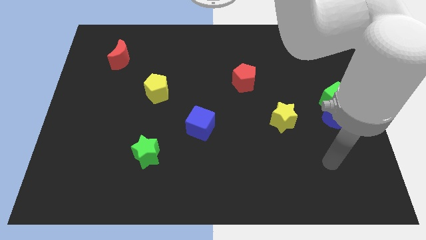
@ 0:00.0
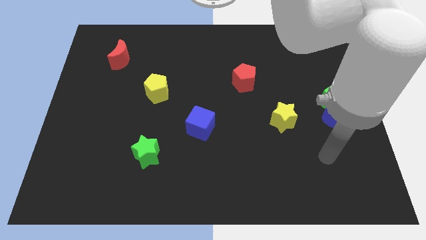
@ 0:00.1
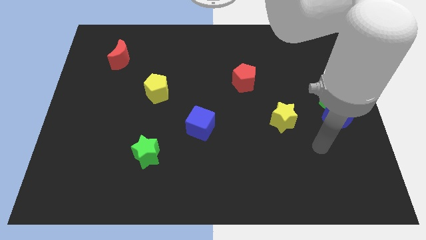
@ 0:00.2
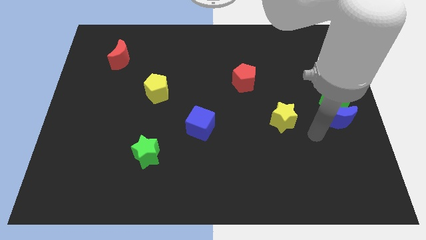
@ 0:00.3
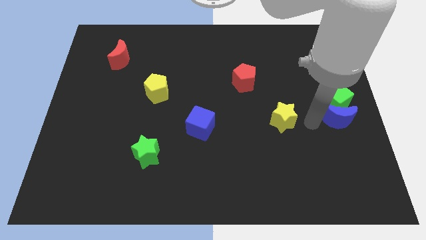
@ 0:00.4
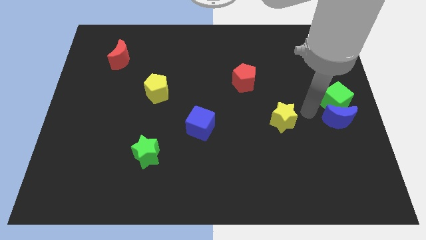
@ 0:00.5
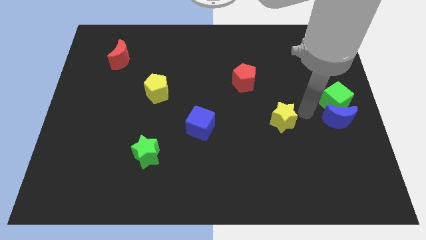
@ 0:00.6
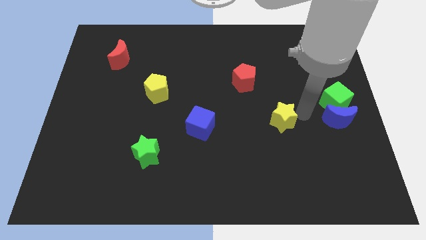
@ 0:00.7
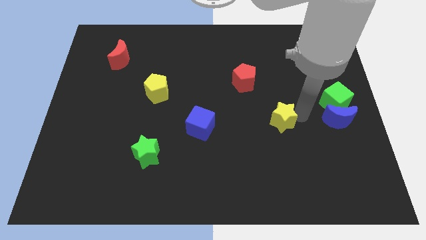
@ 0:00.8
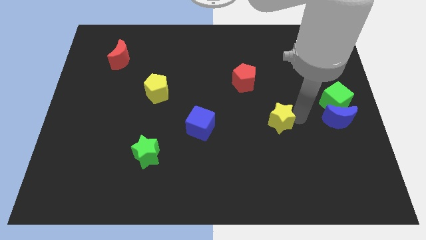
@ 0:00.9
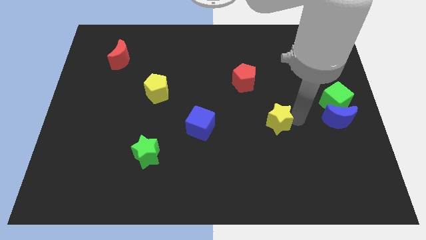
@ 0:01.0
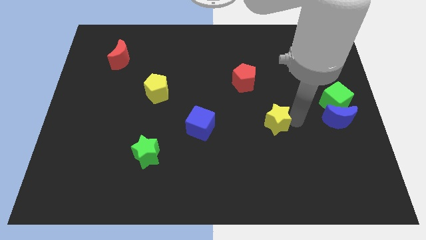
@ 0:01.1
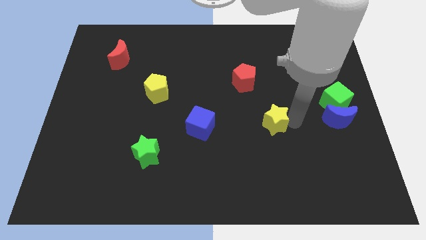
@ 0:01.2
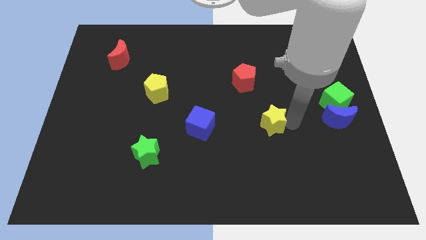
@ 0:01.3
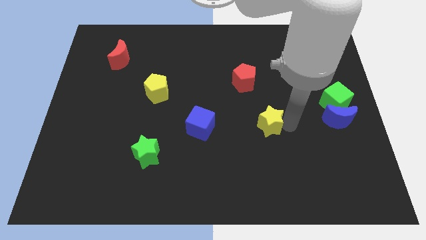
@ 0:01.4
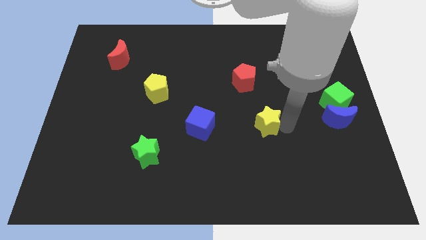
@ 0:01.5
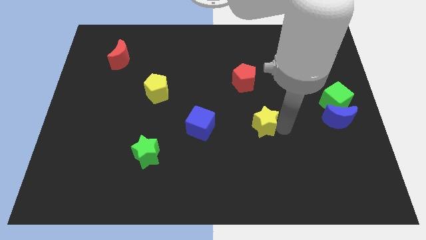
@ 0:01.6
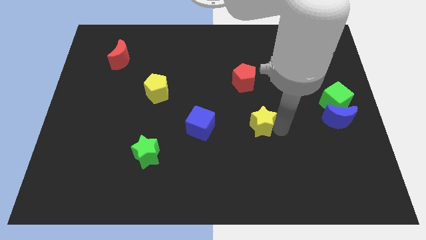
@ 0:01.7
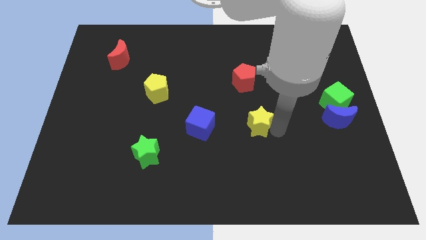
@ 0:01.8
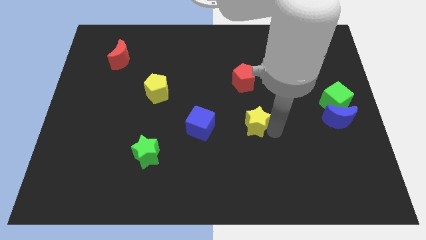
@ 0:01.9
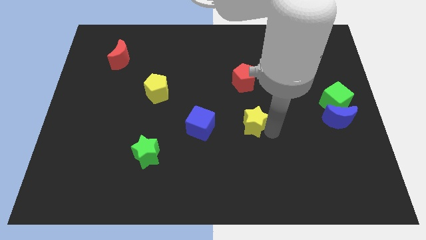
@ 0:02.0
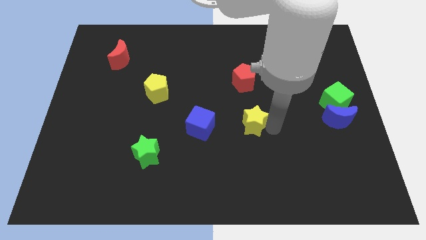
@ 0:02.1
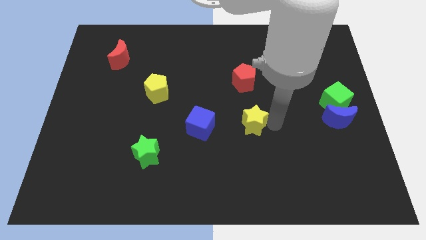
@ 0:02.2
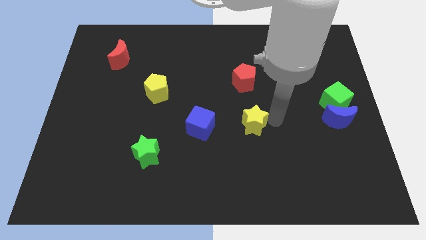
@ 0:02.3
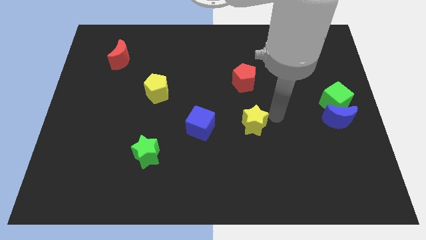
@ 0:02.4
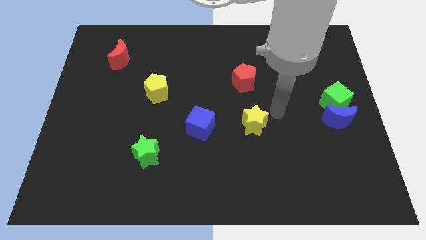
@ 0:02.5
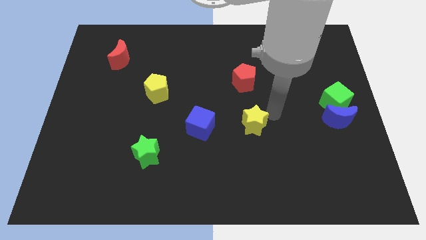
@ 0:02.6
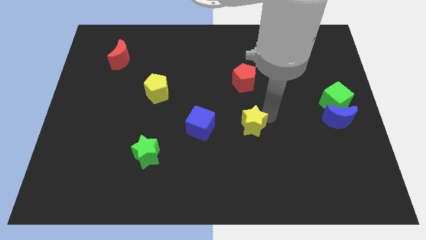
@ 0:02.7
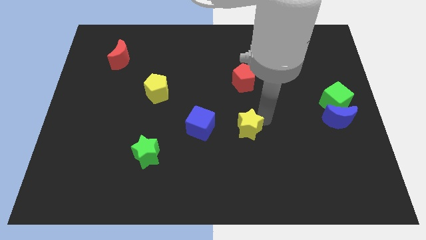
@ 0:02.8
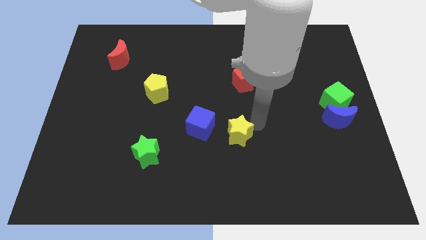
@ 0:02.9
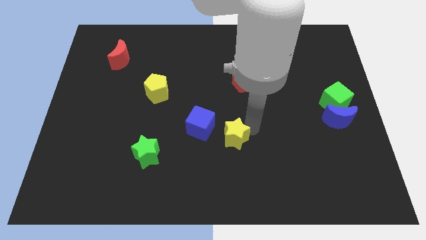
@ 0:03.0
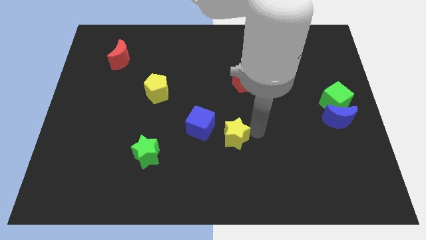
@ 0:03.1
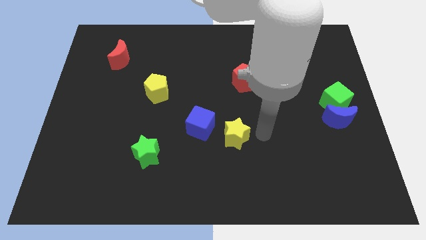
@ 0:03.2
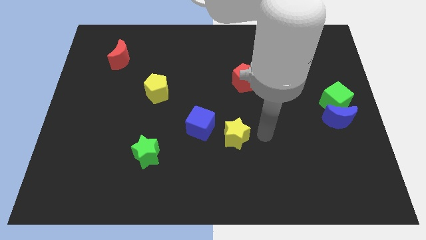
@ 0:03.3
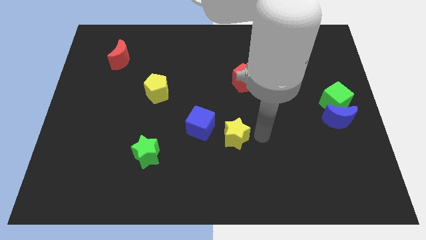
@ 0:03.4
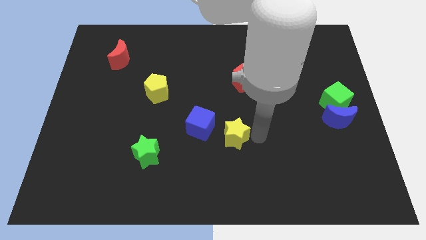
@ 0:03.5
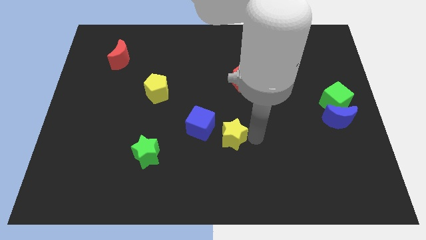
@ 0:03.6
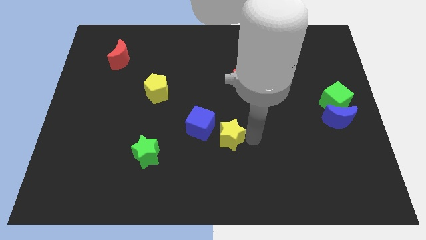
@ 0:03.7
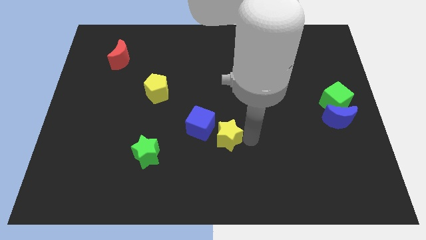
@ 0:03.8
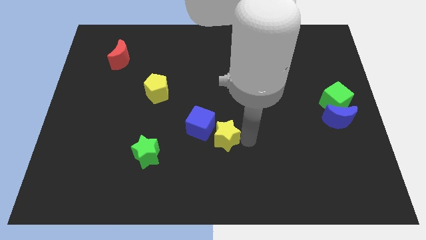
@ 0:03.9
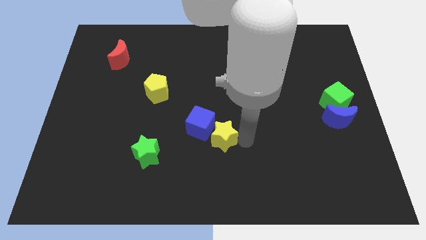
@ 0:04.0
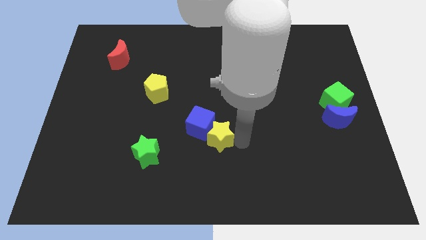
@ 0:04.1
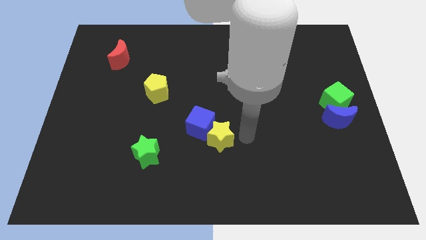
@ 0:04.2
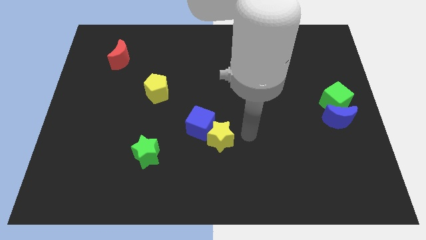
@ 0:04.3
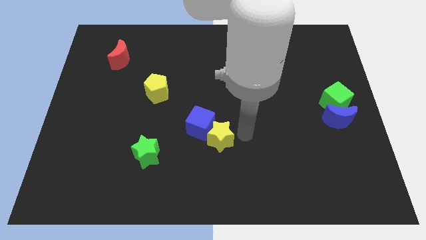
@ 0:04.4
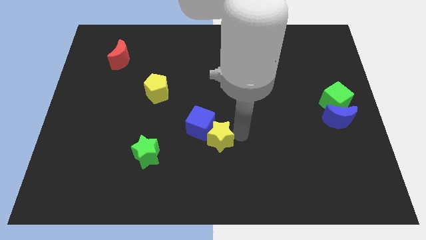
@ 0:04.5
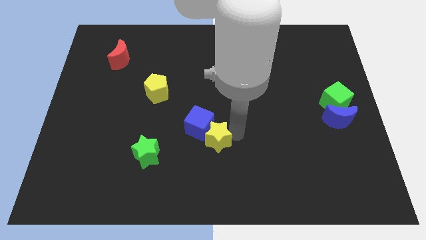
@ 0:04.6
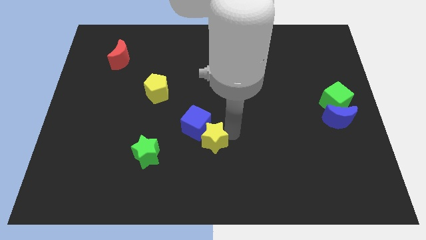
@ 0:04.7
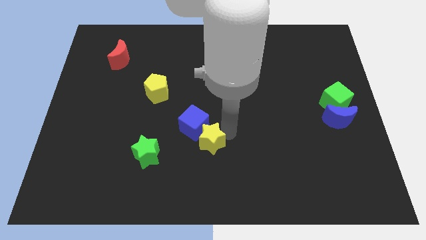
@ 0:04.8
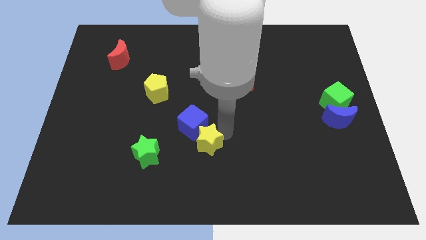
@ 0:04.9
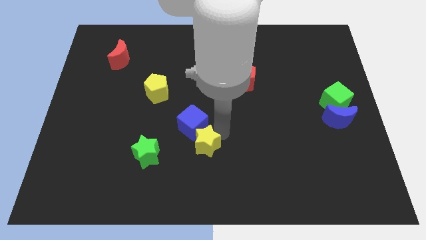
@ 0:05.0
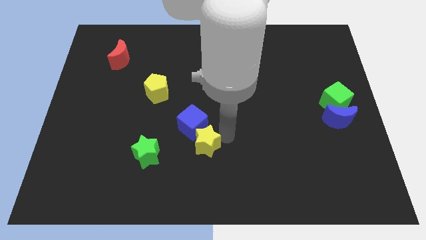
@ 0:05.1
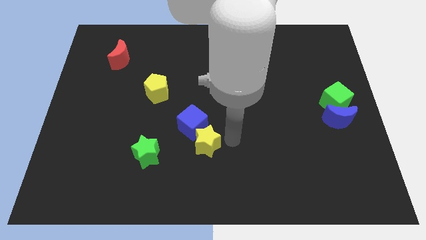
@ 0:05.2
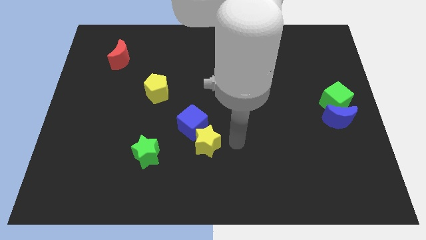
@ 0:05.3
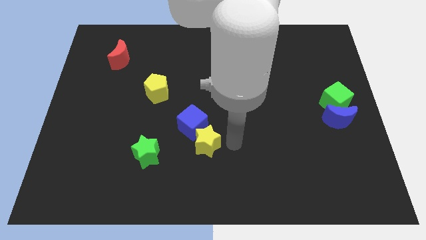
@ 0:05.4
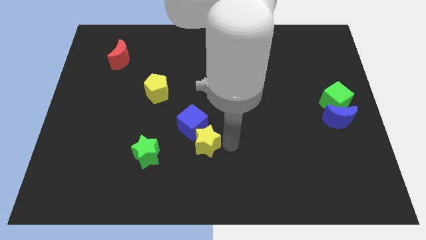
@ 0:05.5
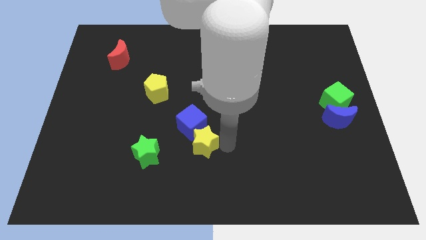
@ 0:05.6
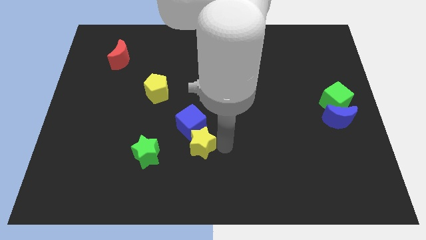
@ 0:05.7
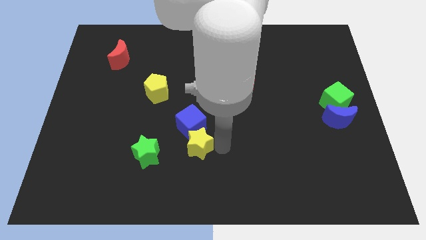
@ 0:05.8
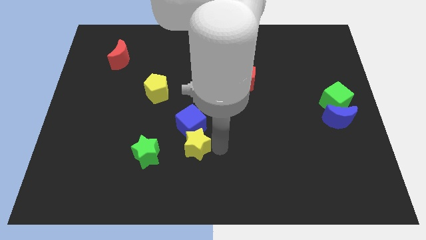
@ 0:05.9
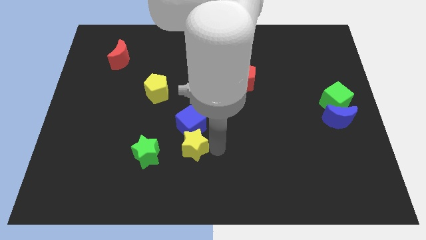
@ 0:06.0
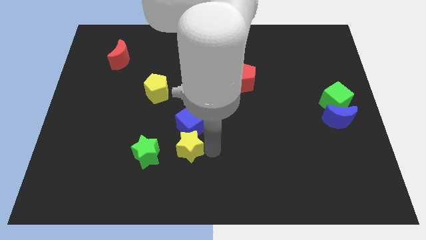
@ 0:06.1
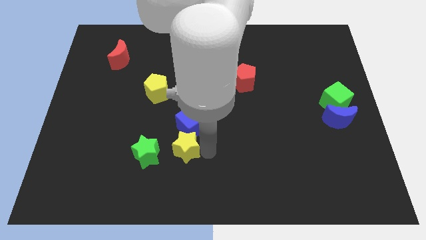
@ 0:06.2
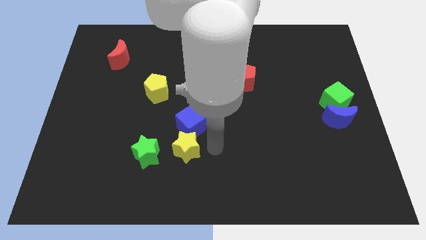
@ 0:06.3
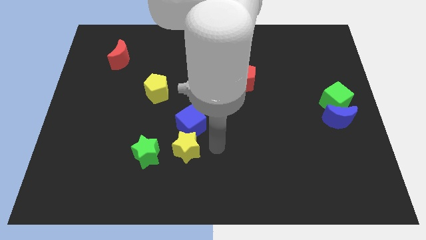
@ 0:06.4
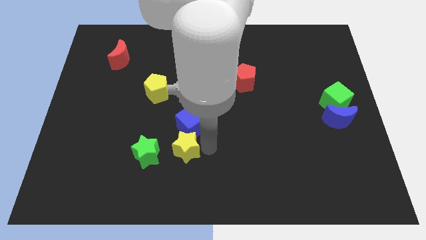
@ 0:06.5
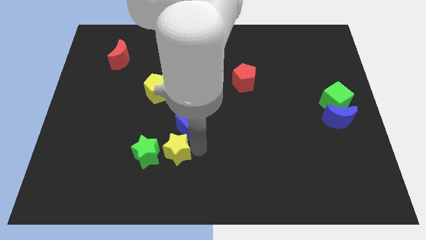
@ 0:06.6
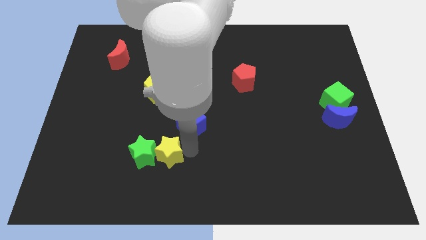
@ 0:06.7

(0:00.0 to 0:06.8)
slide the yellow star next to the green star

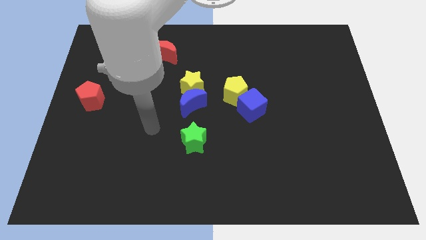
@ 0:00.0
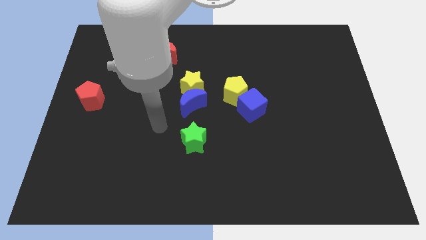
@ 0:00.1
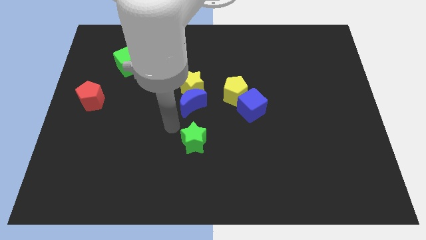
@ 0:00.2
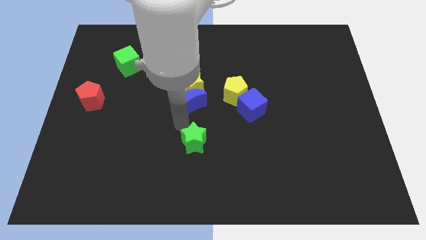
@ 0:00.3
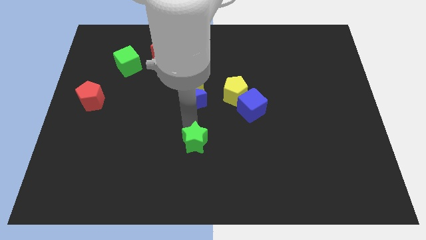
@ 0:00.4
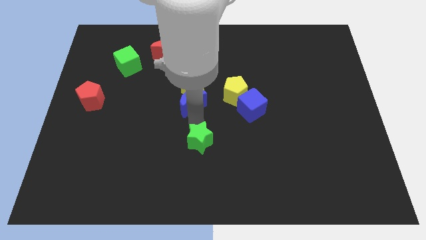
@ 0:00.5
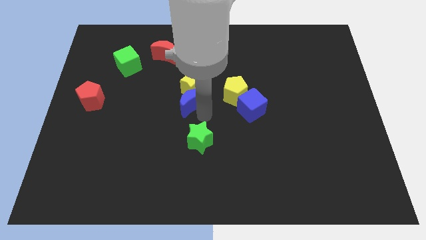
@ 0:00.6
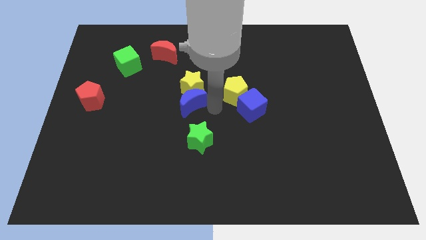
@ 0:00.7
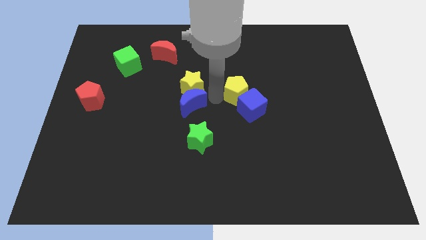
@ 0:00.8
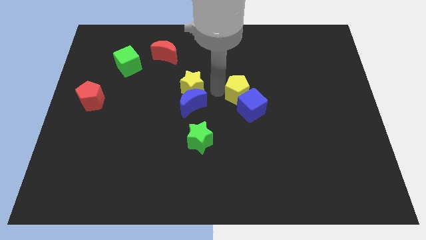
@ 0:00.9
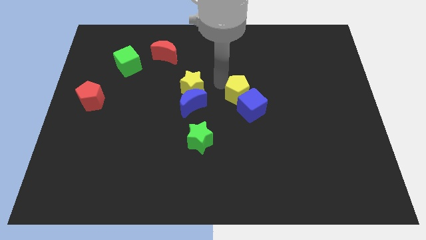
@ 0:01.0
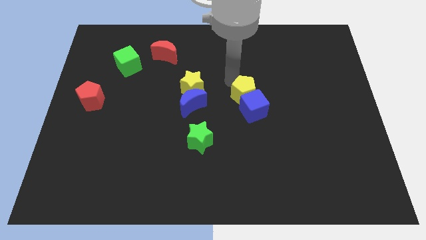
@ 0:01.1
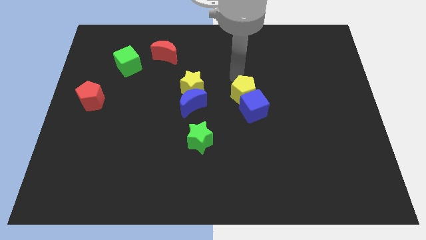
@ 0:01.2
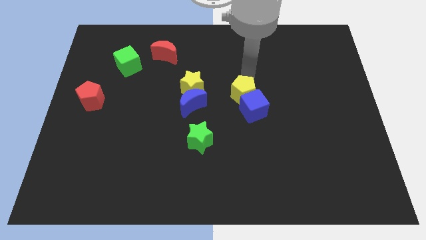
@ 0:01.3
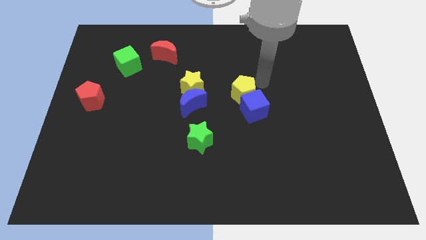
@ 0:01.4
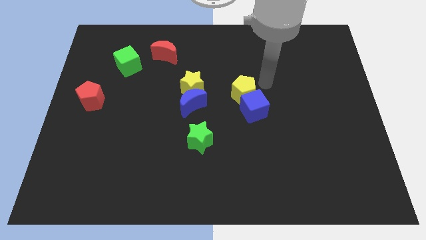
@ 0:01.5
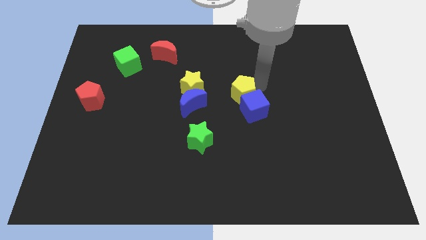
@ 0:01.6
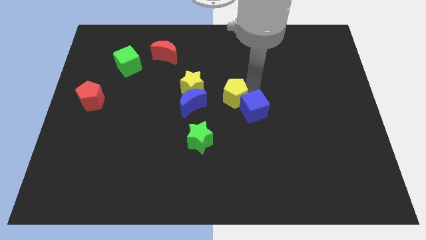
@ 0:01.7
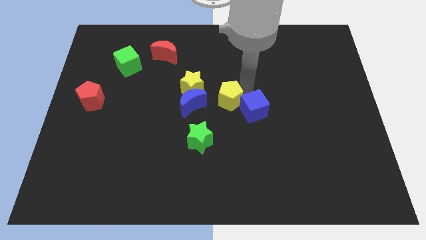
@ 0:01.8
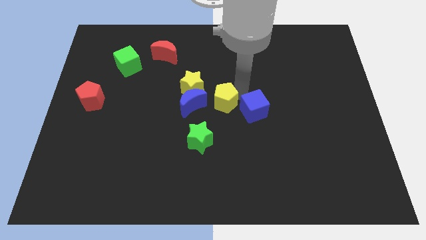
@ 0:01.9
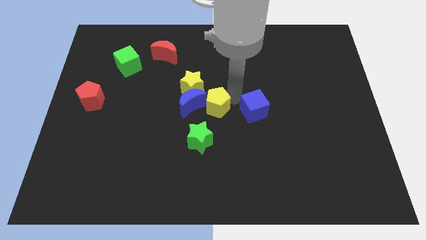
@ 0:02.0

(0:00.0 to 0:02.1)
move the yellow pentagon next to the blue moon

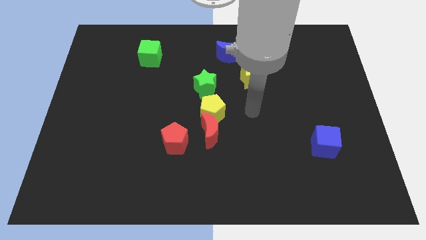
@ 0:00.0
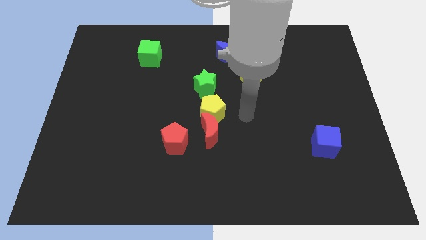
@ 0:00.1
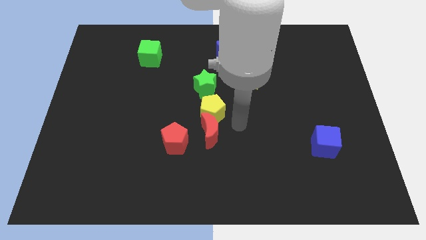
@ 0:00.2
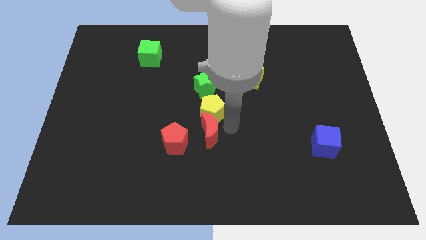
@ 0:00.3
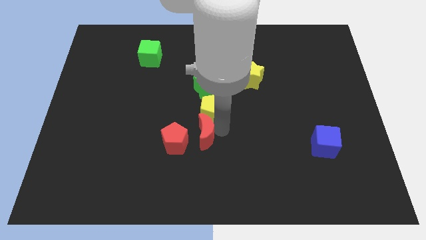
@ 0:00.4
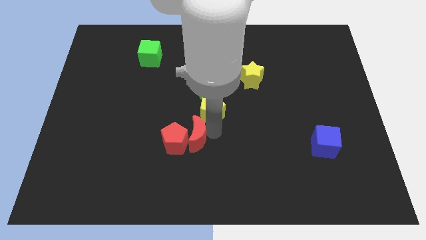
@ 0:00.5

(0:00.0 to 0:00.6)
put the red moon towards the red pentagon
